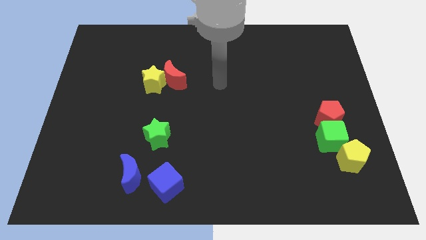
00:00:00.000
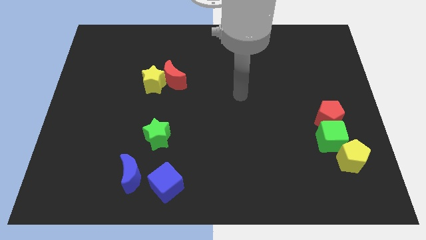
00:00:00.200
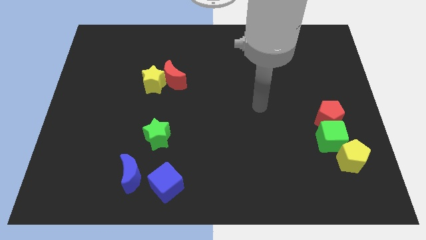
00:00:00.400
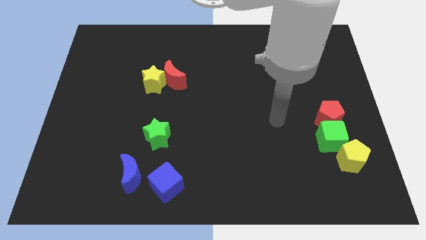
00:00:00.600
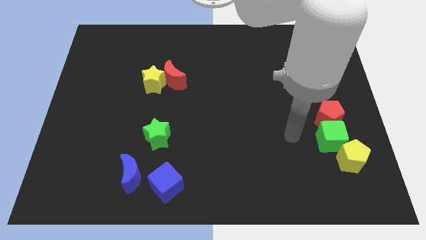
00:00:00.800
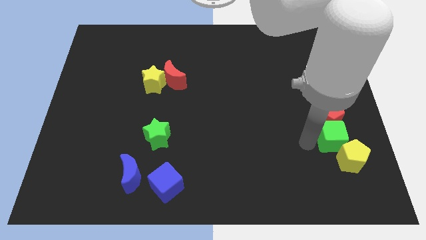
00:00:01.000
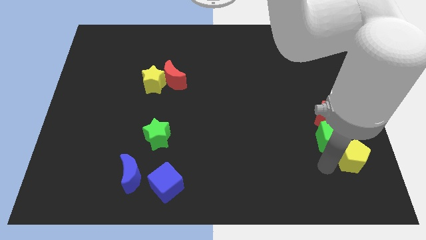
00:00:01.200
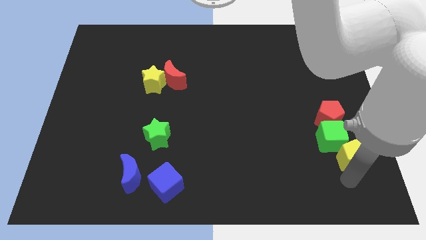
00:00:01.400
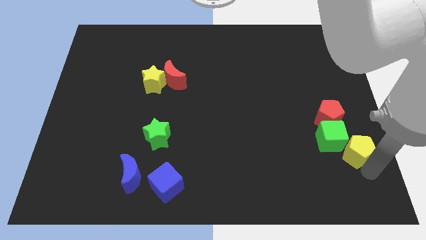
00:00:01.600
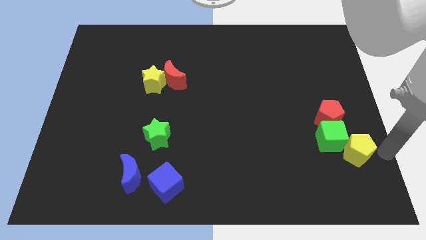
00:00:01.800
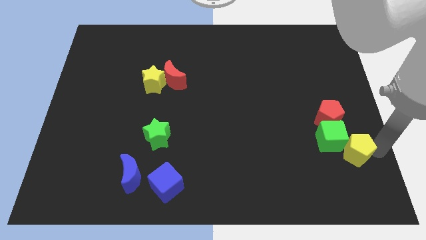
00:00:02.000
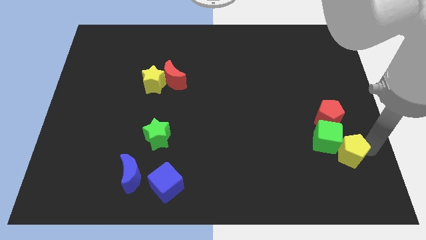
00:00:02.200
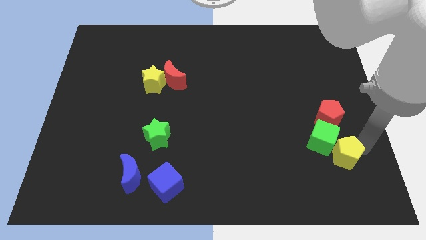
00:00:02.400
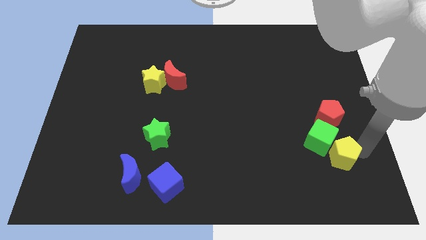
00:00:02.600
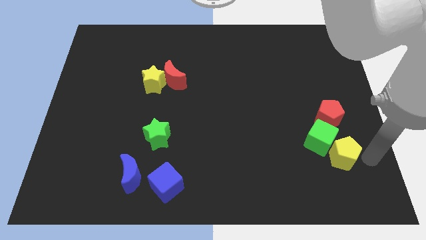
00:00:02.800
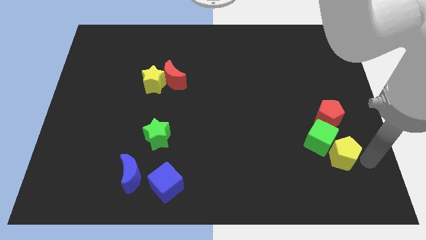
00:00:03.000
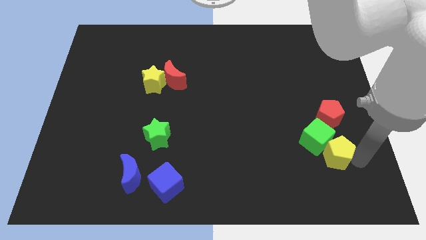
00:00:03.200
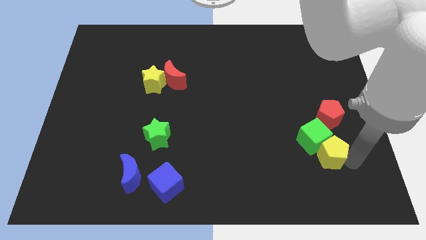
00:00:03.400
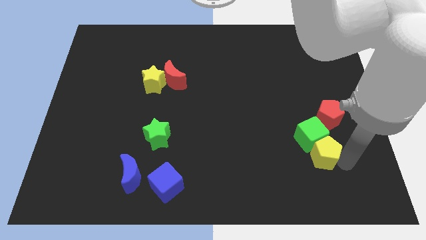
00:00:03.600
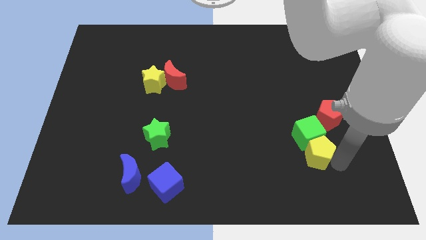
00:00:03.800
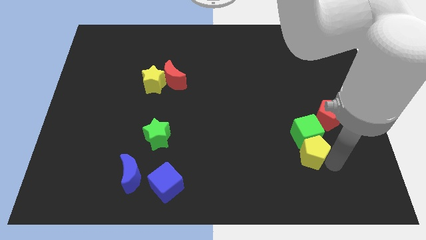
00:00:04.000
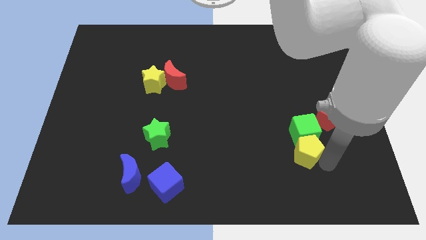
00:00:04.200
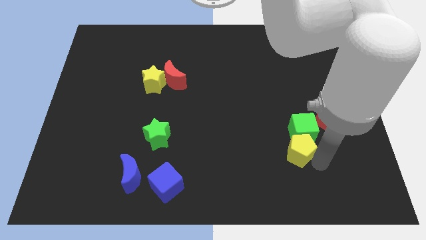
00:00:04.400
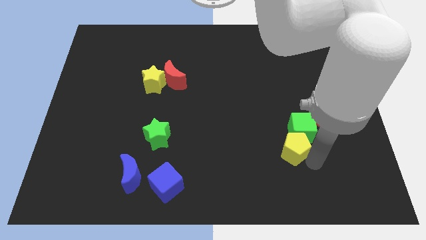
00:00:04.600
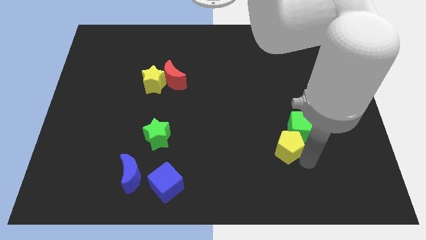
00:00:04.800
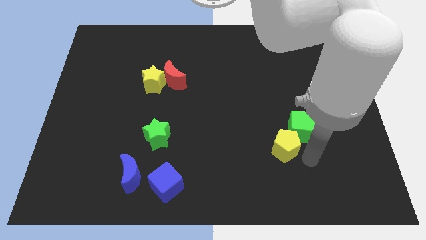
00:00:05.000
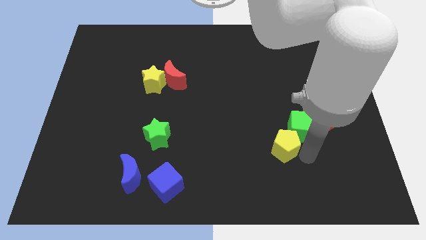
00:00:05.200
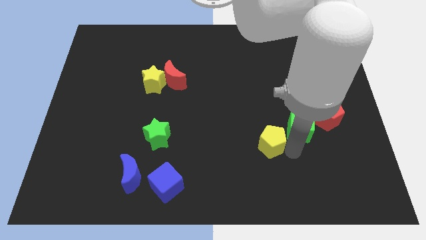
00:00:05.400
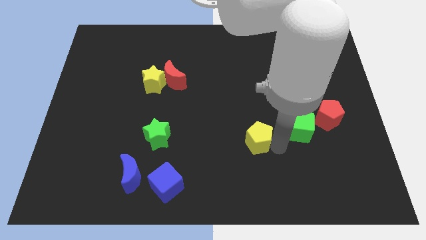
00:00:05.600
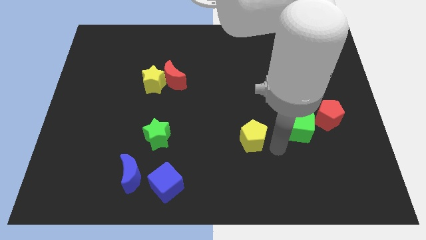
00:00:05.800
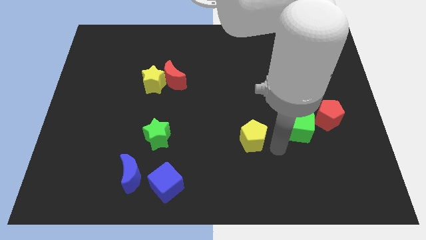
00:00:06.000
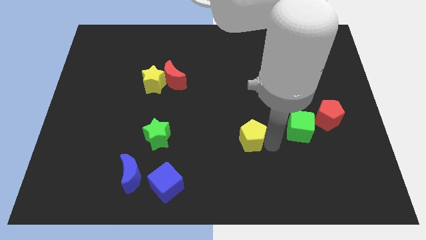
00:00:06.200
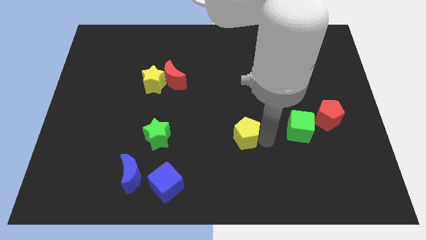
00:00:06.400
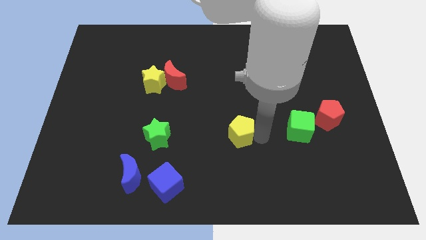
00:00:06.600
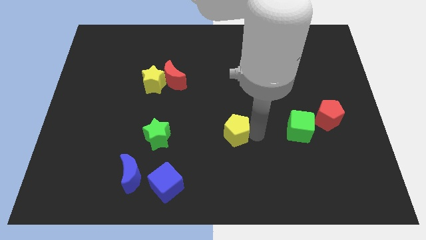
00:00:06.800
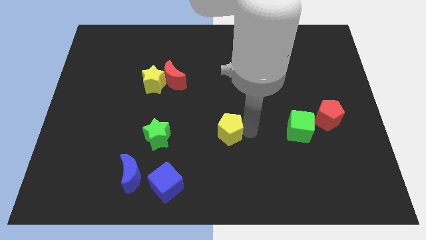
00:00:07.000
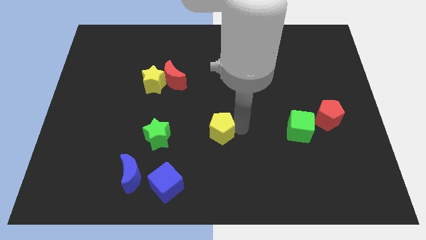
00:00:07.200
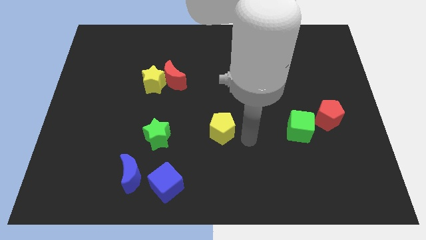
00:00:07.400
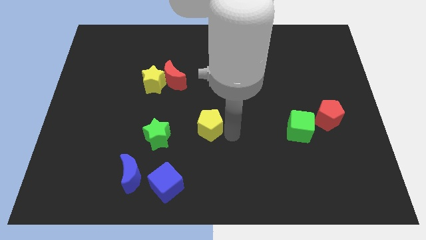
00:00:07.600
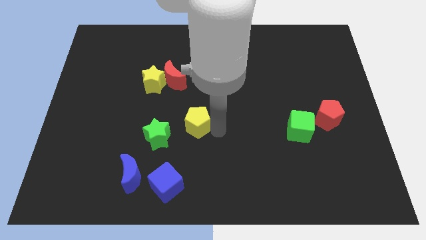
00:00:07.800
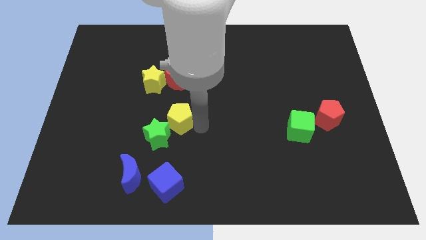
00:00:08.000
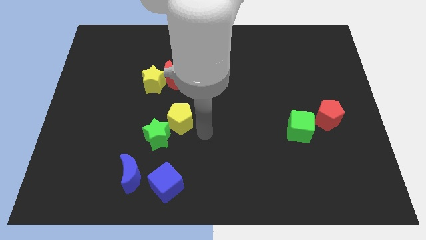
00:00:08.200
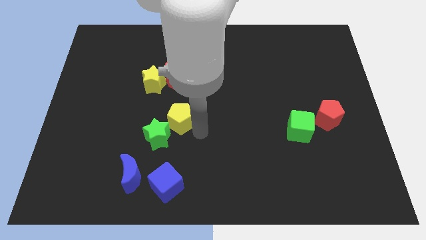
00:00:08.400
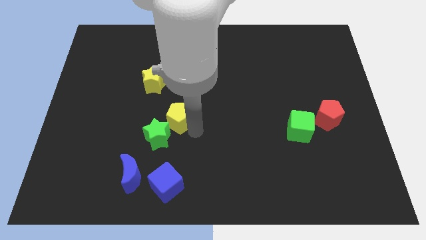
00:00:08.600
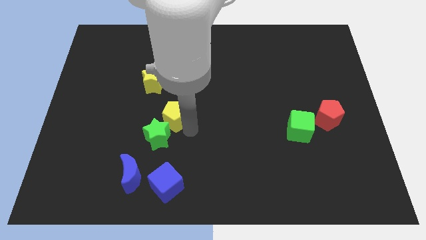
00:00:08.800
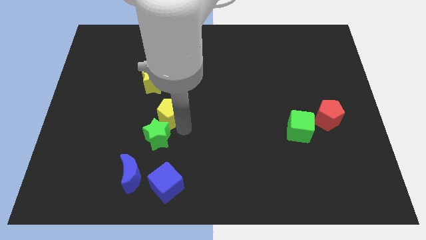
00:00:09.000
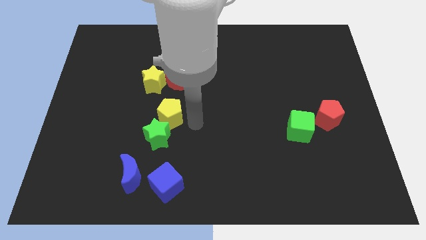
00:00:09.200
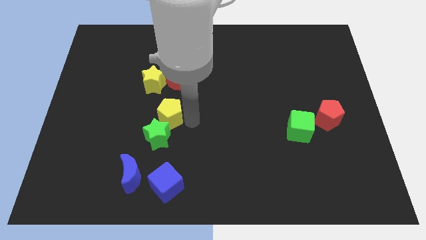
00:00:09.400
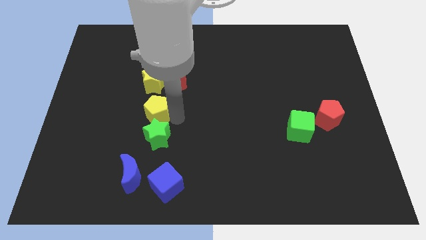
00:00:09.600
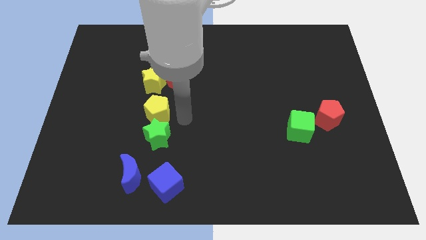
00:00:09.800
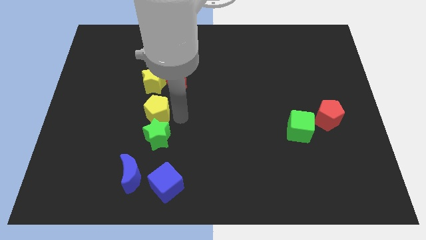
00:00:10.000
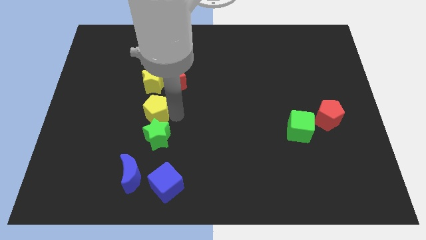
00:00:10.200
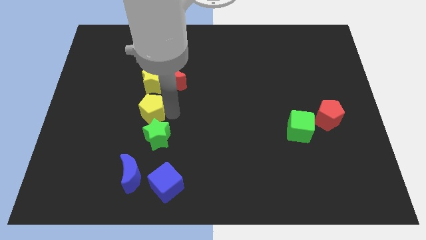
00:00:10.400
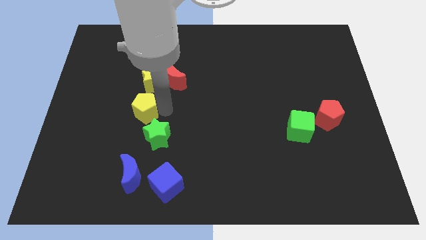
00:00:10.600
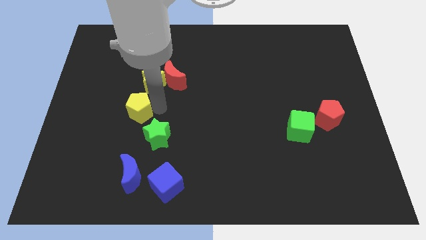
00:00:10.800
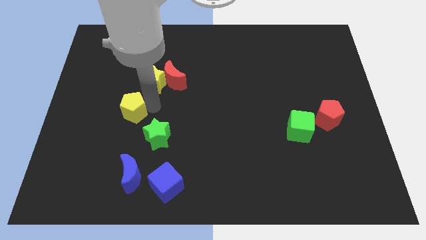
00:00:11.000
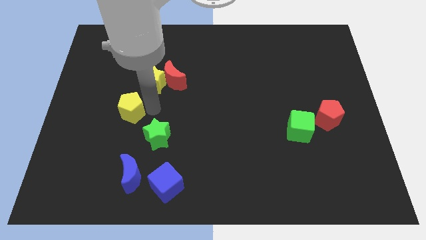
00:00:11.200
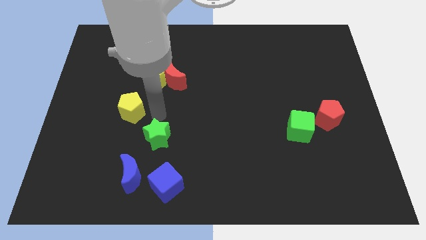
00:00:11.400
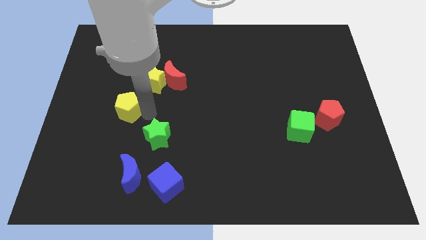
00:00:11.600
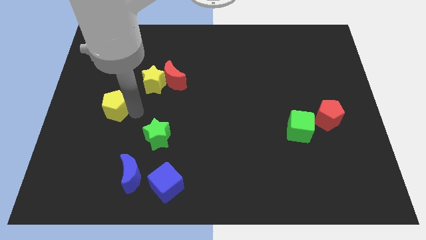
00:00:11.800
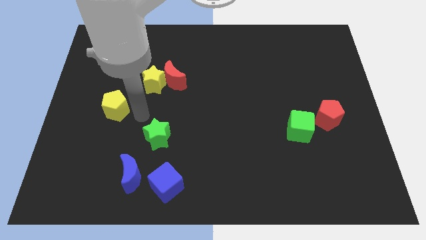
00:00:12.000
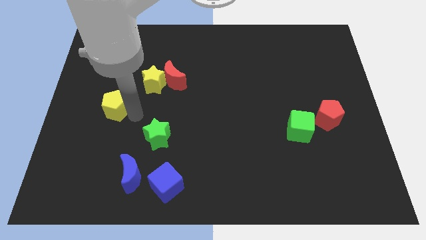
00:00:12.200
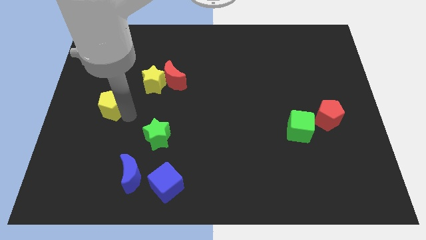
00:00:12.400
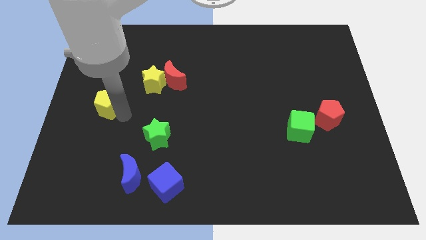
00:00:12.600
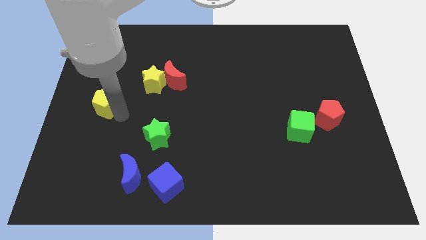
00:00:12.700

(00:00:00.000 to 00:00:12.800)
slide the yellow pentagon to the left side of the board
